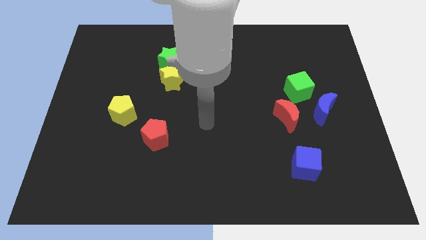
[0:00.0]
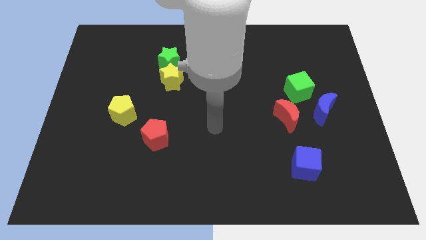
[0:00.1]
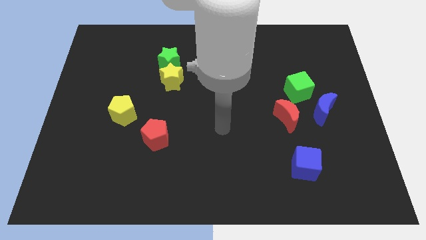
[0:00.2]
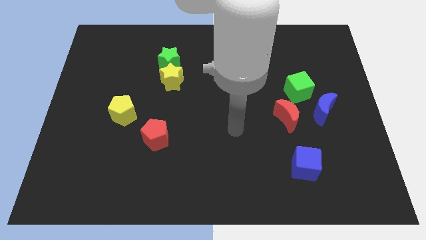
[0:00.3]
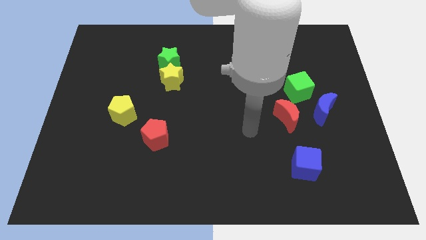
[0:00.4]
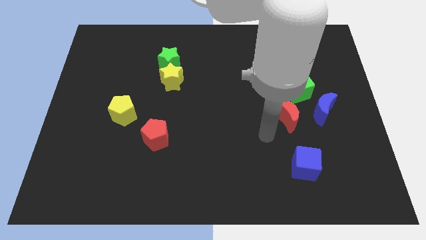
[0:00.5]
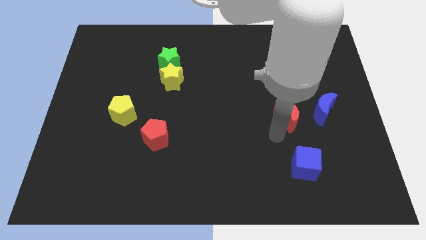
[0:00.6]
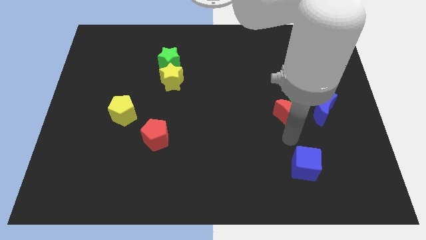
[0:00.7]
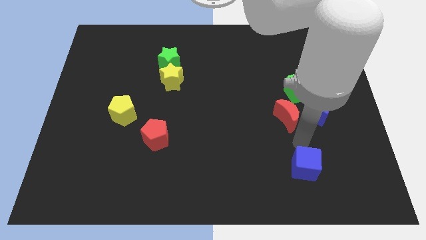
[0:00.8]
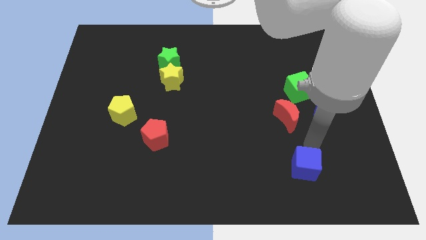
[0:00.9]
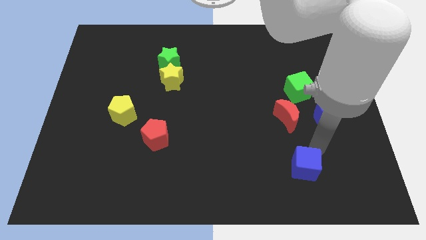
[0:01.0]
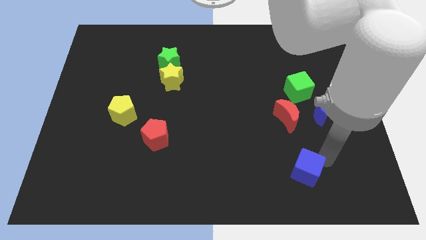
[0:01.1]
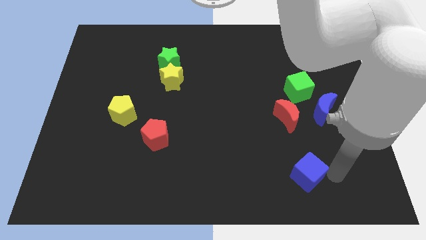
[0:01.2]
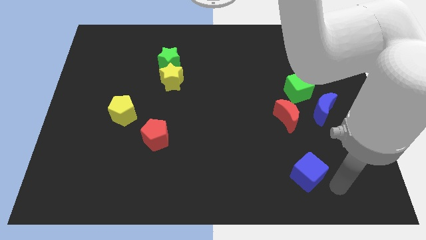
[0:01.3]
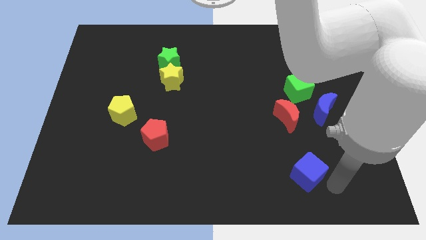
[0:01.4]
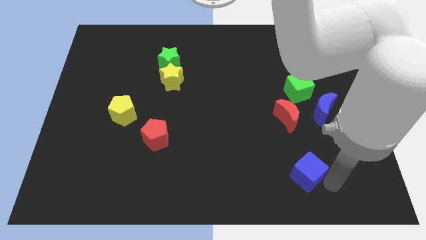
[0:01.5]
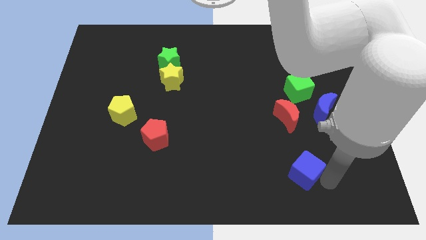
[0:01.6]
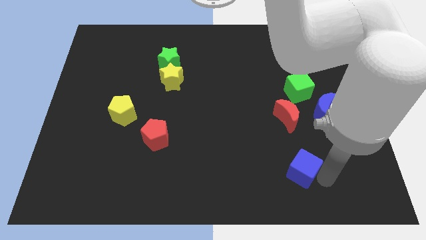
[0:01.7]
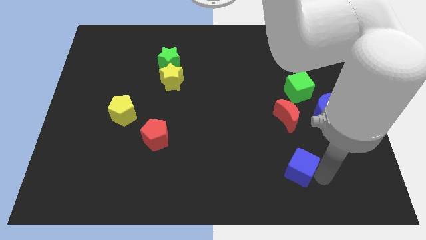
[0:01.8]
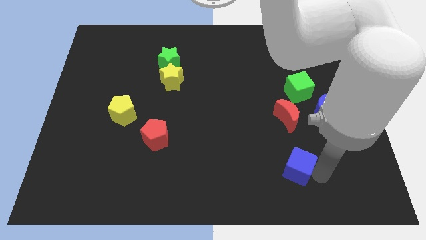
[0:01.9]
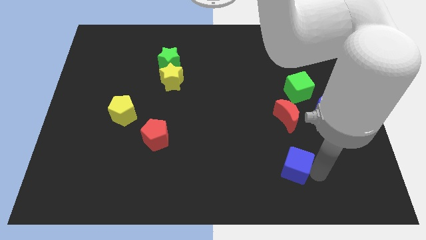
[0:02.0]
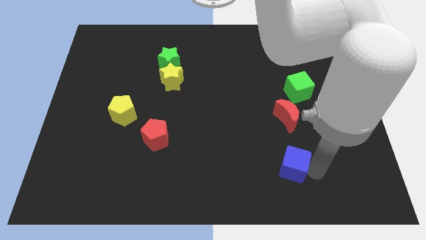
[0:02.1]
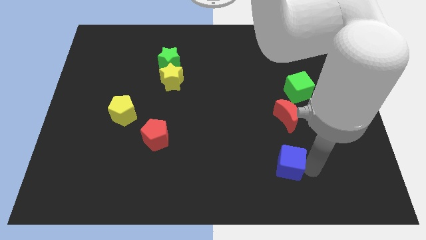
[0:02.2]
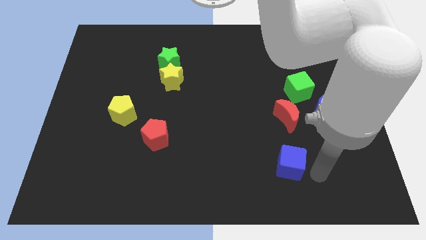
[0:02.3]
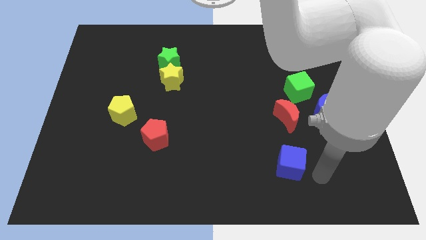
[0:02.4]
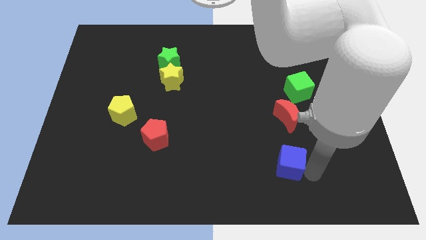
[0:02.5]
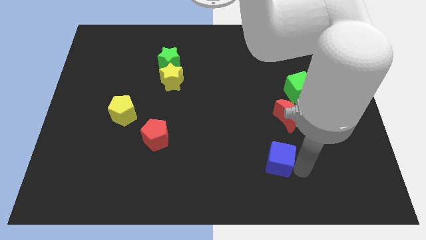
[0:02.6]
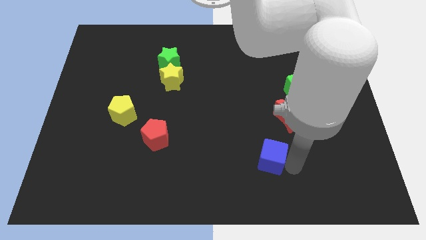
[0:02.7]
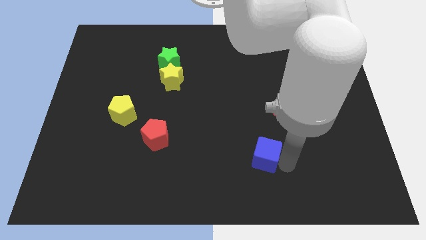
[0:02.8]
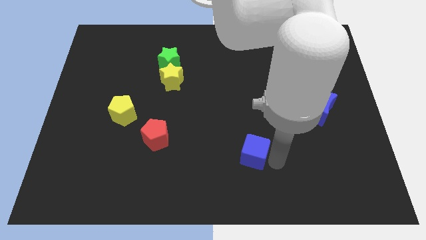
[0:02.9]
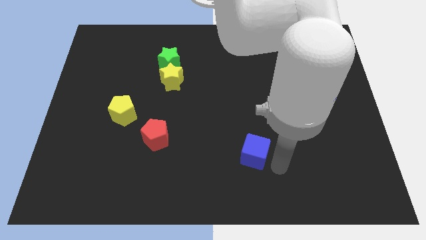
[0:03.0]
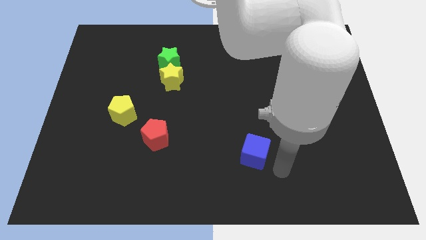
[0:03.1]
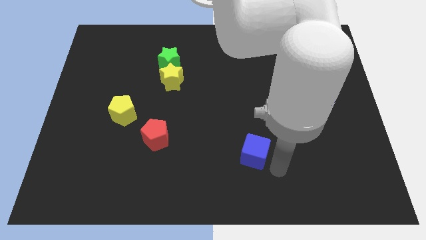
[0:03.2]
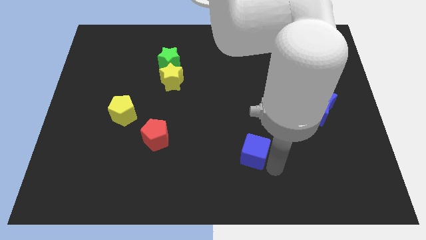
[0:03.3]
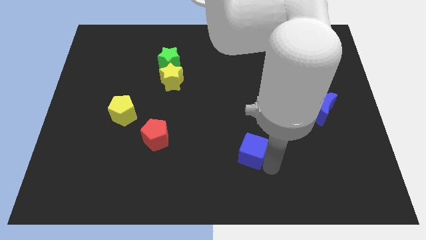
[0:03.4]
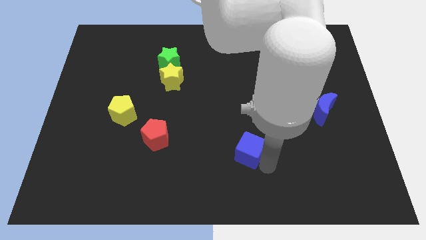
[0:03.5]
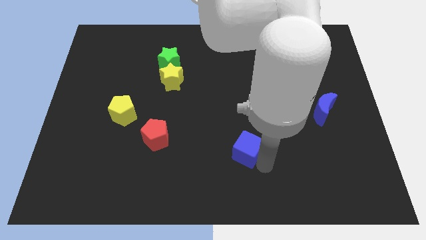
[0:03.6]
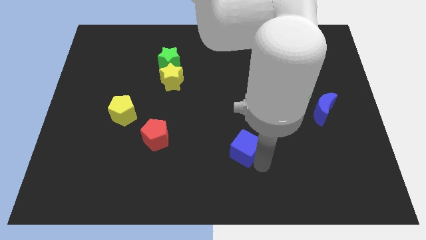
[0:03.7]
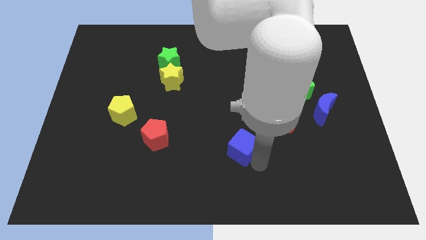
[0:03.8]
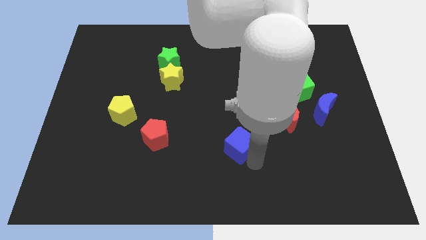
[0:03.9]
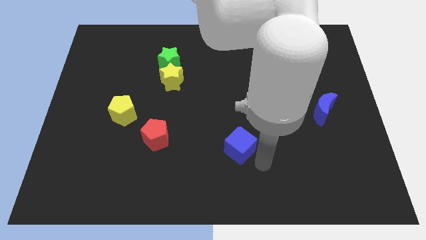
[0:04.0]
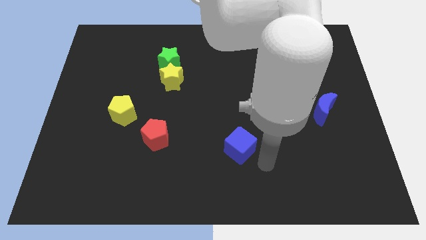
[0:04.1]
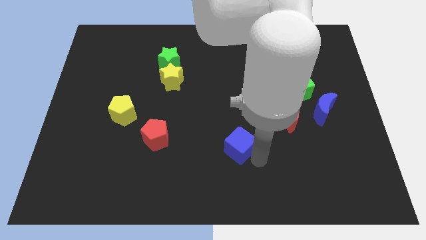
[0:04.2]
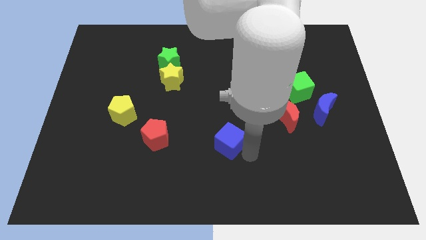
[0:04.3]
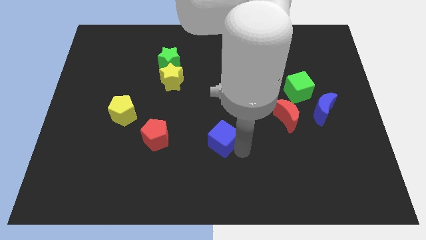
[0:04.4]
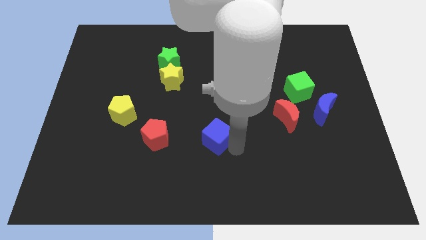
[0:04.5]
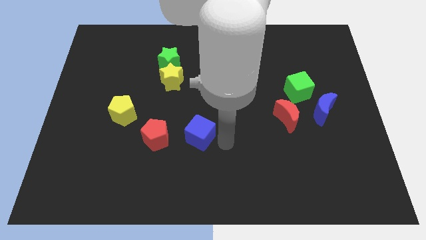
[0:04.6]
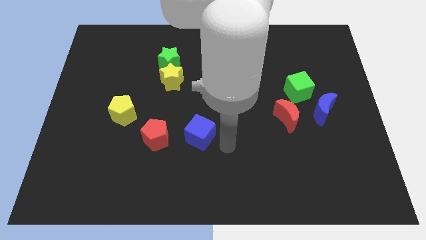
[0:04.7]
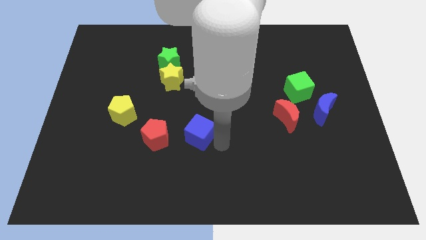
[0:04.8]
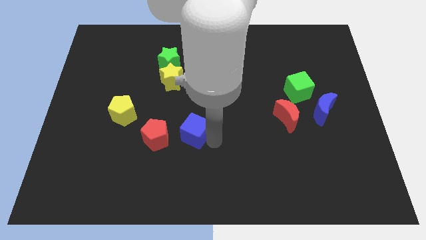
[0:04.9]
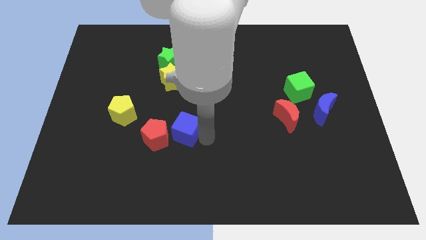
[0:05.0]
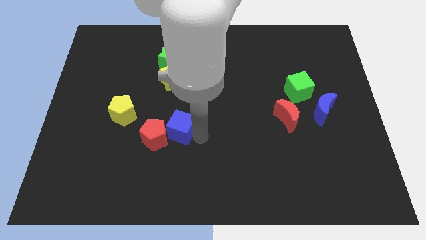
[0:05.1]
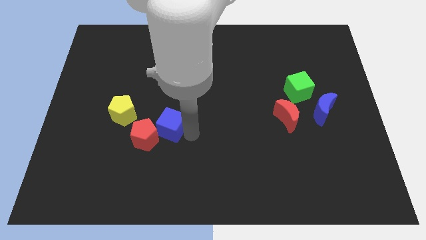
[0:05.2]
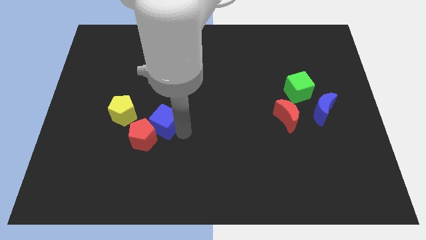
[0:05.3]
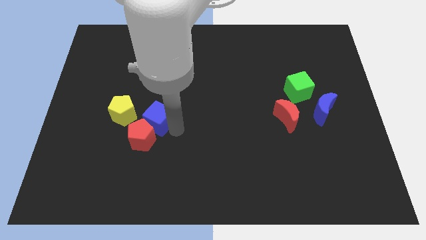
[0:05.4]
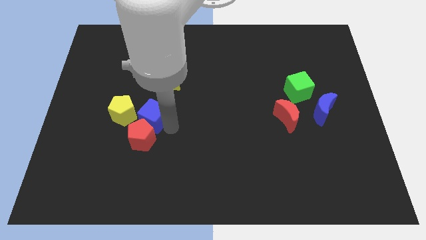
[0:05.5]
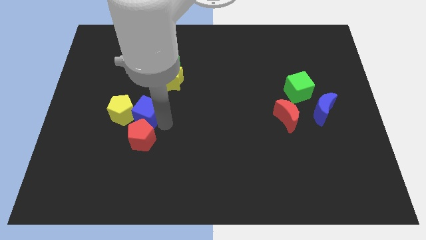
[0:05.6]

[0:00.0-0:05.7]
put the blue cube to the yellow pentagon

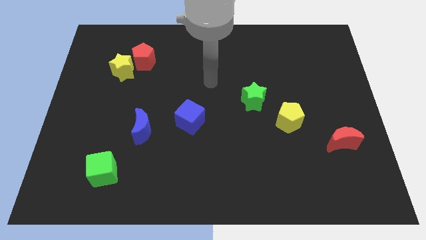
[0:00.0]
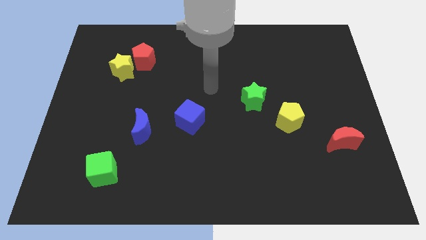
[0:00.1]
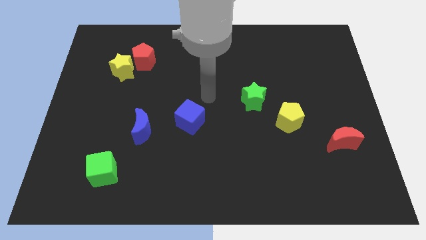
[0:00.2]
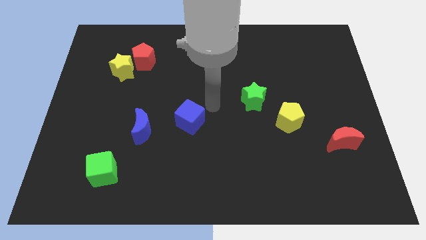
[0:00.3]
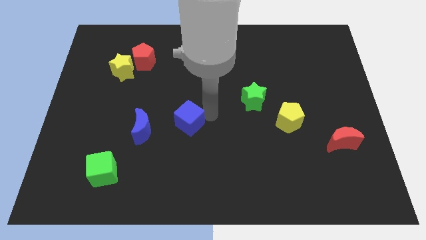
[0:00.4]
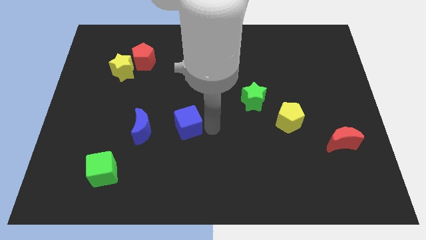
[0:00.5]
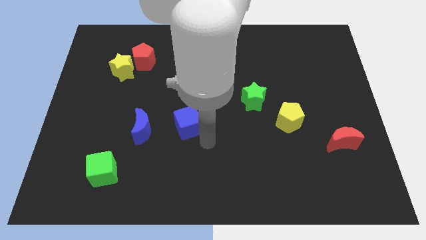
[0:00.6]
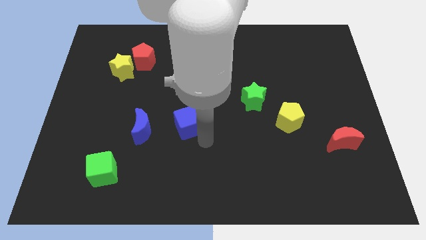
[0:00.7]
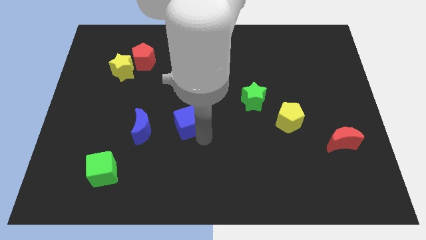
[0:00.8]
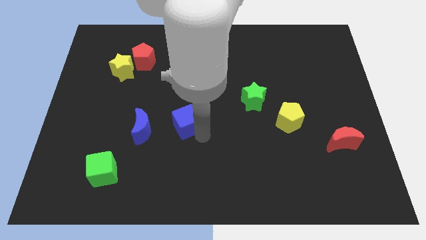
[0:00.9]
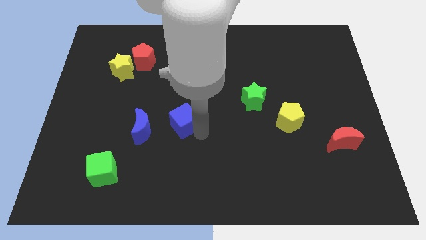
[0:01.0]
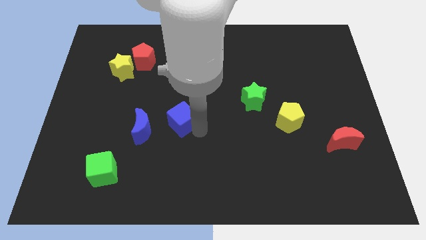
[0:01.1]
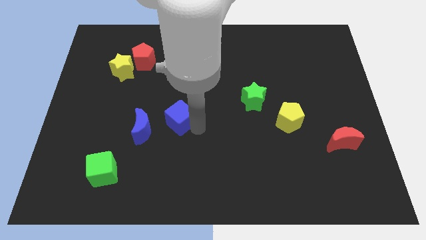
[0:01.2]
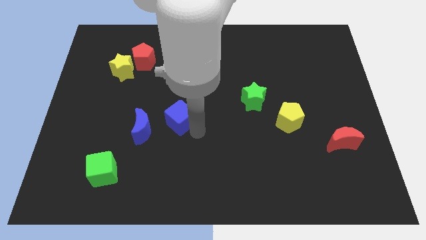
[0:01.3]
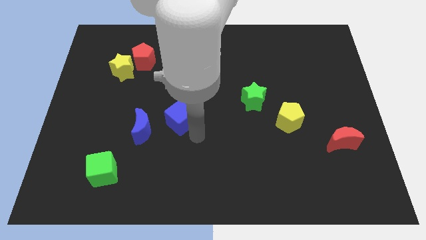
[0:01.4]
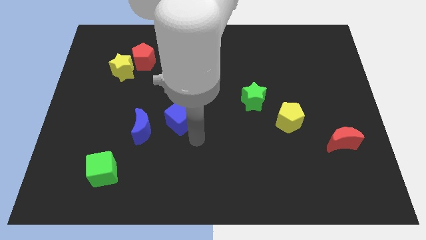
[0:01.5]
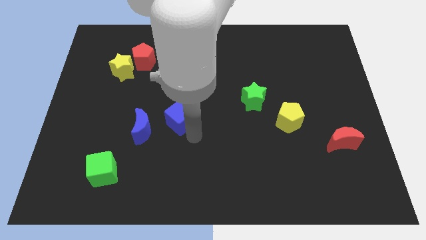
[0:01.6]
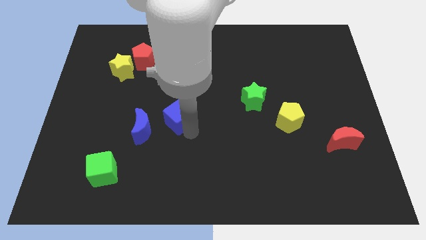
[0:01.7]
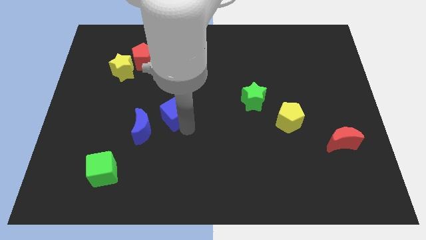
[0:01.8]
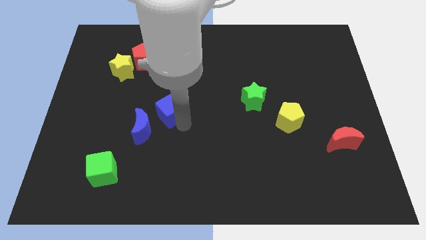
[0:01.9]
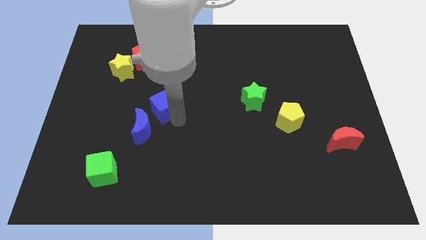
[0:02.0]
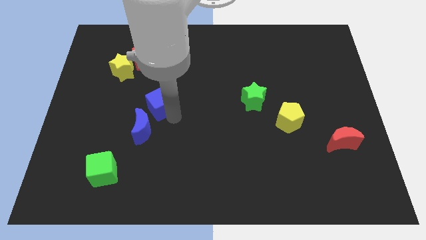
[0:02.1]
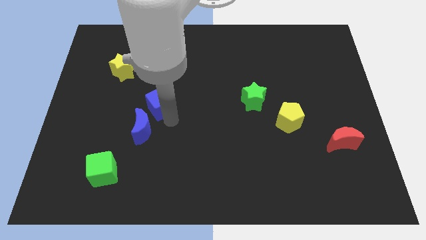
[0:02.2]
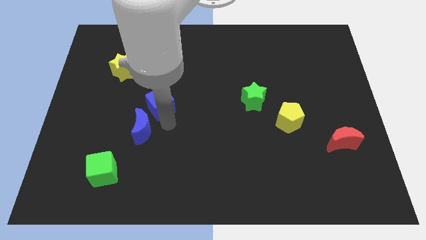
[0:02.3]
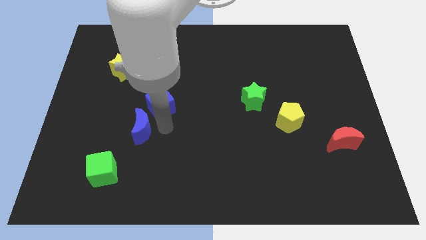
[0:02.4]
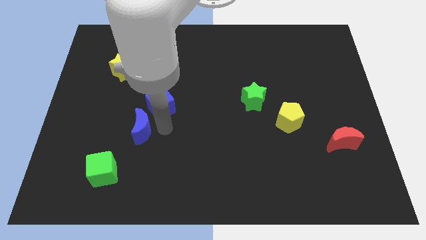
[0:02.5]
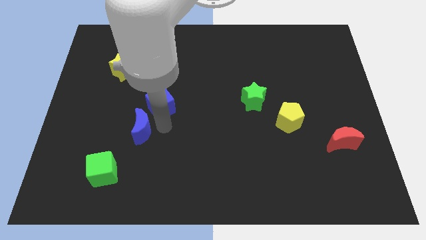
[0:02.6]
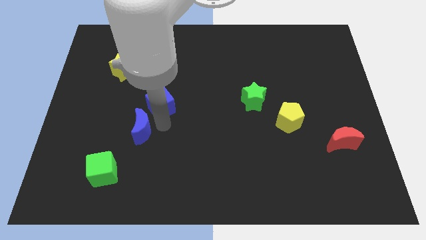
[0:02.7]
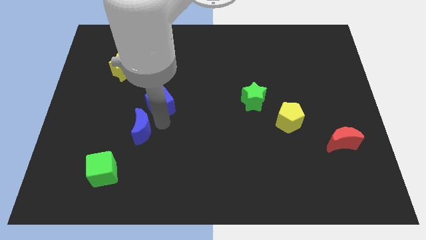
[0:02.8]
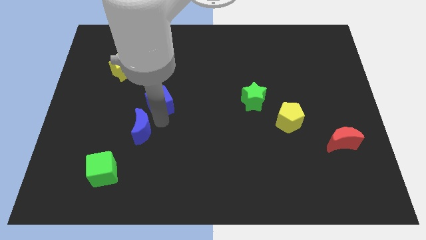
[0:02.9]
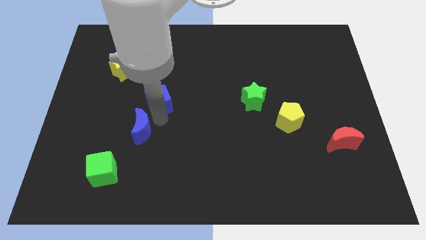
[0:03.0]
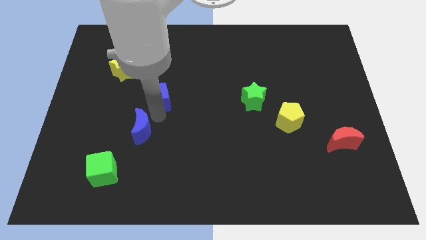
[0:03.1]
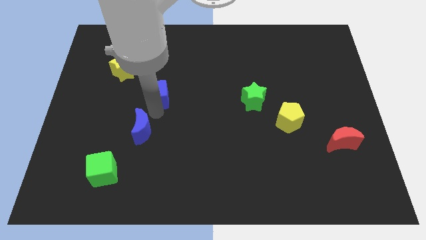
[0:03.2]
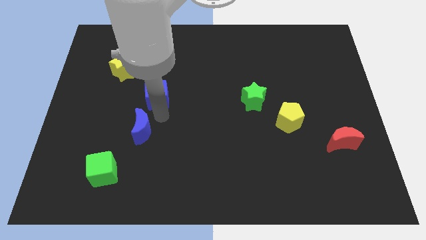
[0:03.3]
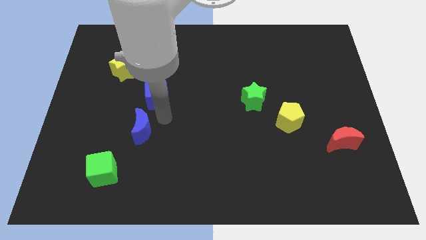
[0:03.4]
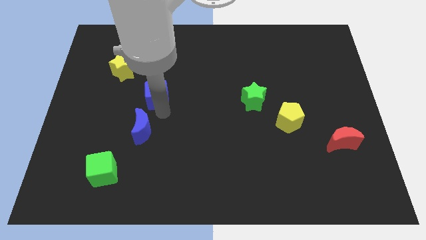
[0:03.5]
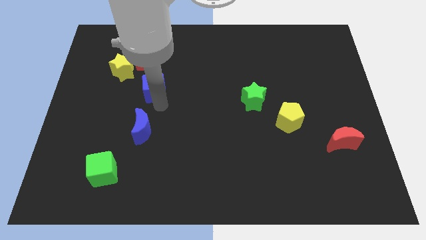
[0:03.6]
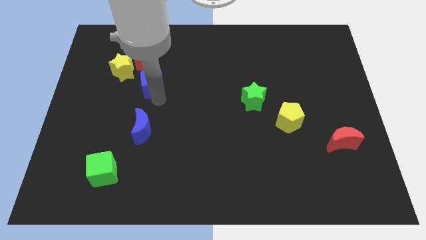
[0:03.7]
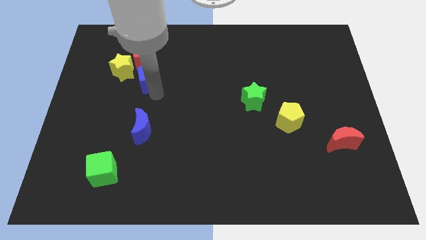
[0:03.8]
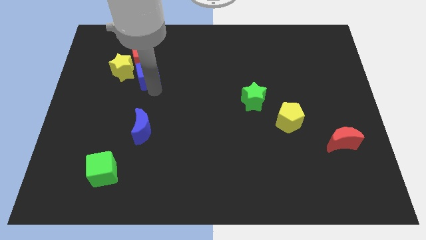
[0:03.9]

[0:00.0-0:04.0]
move the blue cube towards the red pentagon
